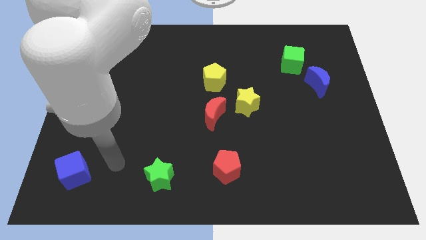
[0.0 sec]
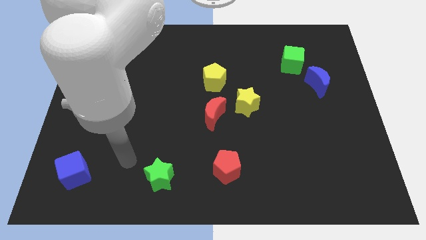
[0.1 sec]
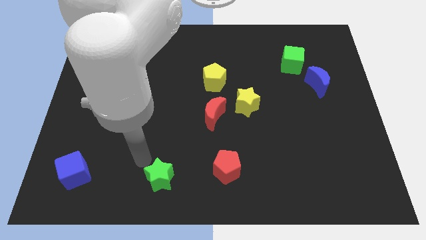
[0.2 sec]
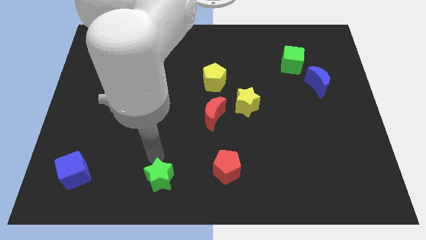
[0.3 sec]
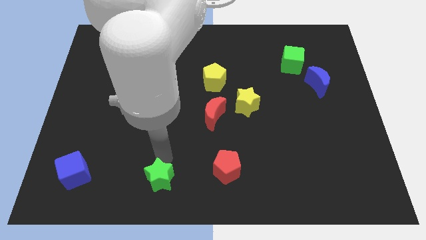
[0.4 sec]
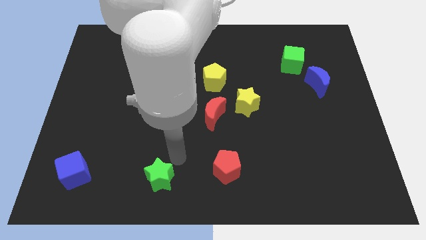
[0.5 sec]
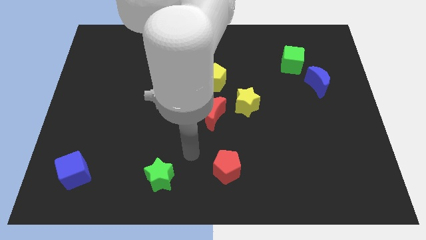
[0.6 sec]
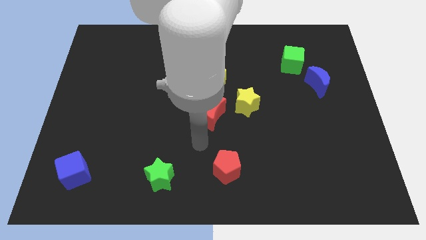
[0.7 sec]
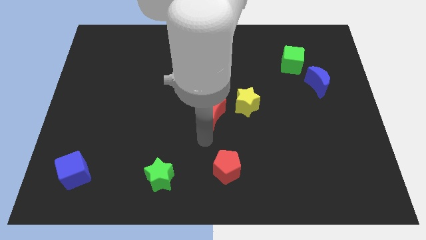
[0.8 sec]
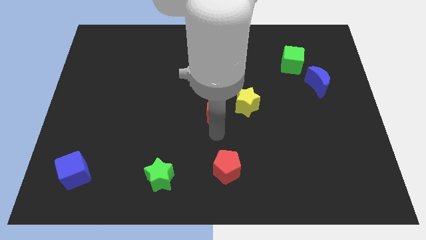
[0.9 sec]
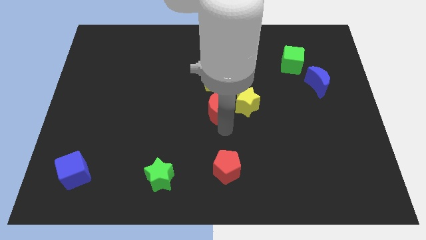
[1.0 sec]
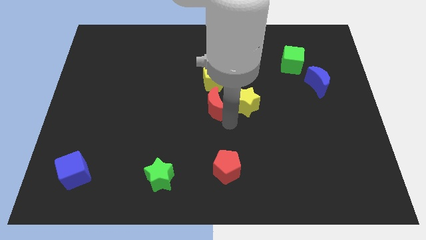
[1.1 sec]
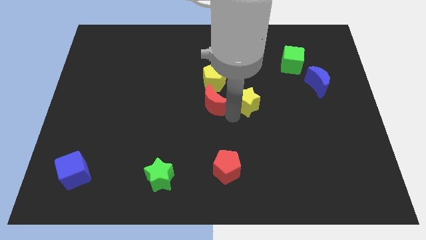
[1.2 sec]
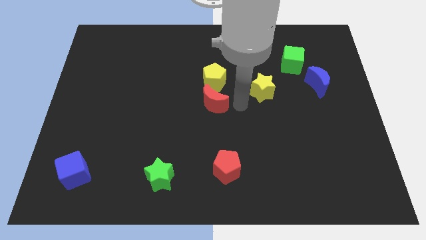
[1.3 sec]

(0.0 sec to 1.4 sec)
move the red moon away from the yellow star

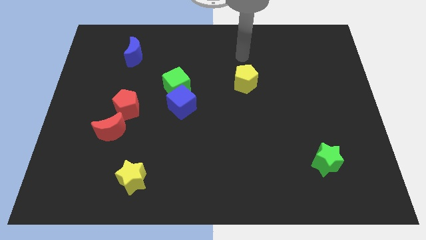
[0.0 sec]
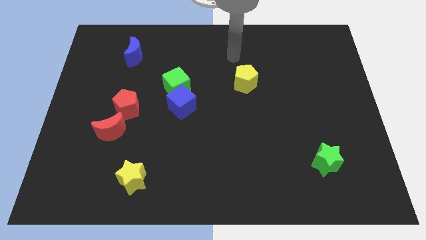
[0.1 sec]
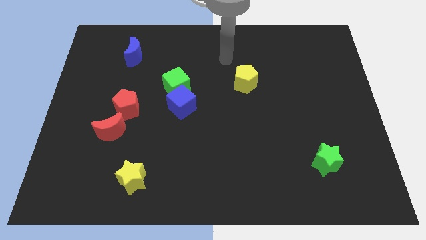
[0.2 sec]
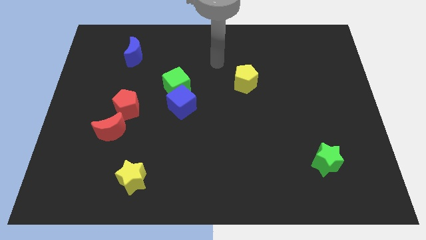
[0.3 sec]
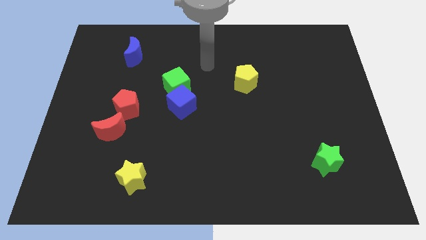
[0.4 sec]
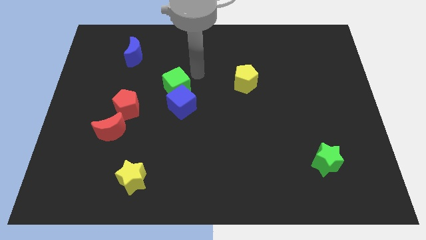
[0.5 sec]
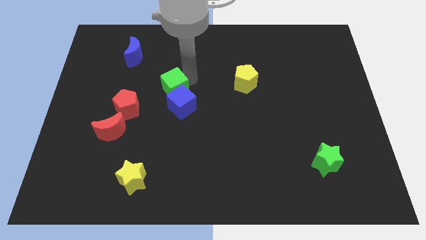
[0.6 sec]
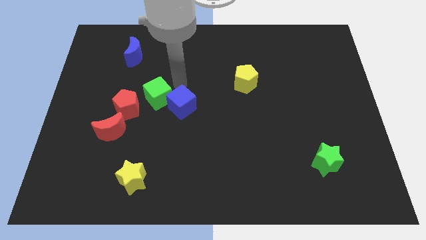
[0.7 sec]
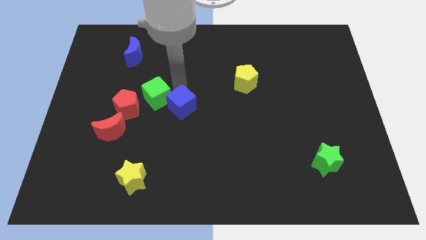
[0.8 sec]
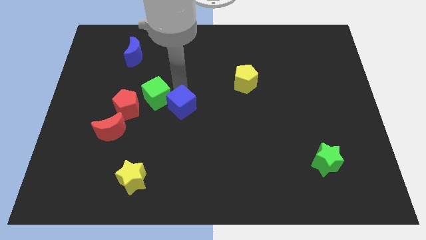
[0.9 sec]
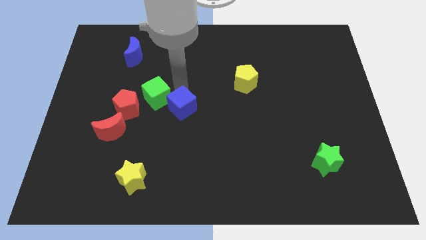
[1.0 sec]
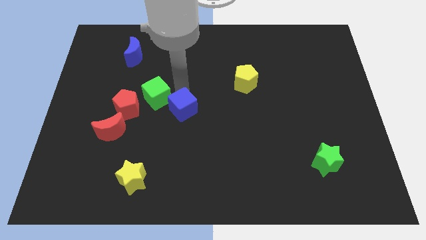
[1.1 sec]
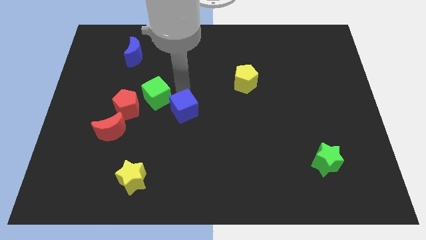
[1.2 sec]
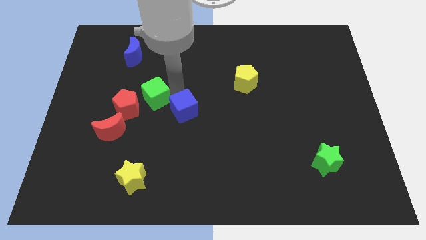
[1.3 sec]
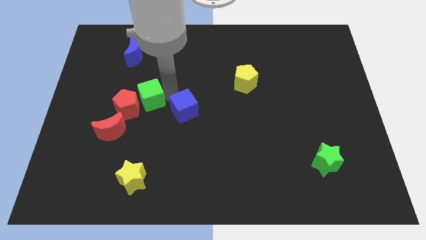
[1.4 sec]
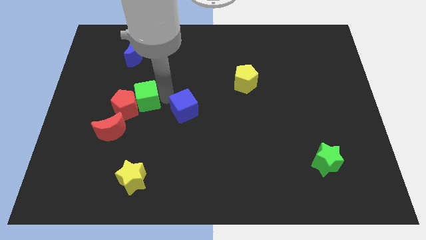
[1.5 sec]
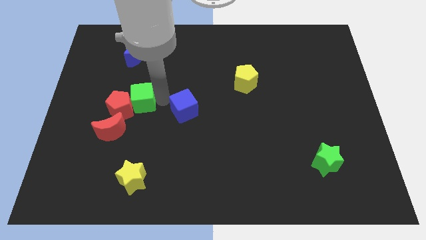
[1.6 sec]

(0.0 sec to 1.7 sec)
pull the blue cube apart from the green cube

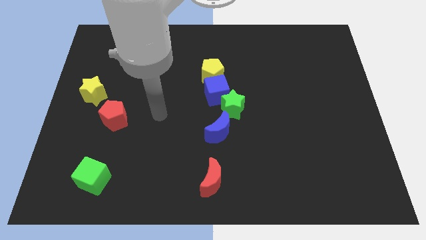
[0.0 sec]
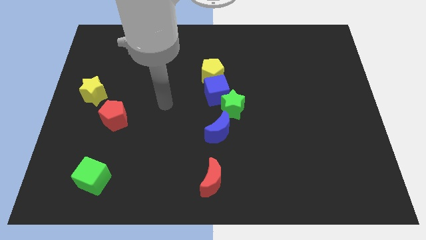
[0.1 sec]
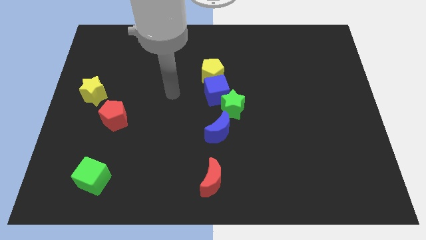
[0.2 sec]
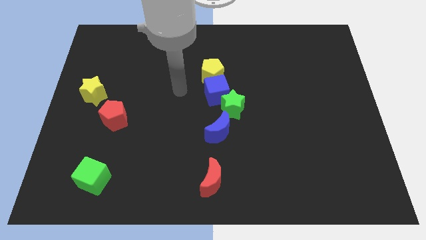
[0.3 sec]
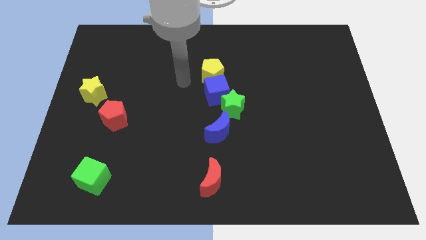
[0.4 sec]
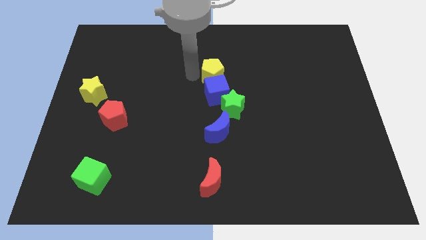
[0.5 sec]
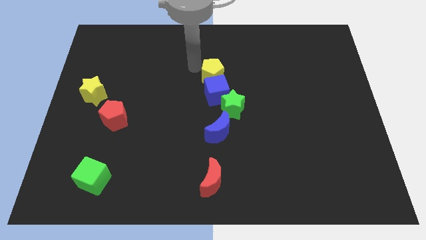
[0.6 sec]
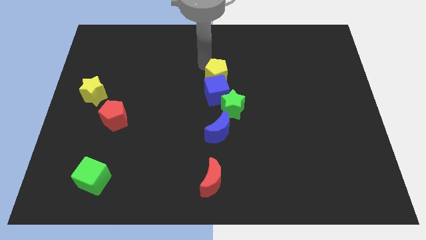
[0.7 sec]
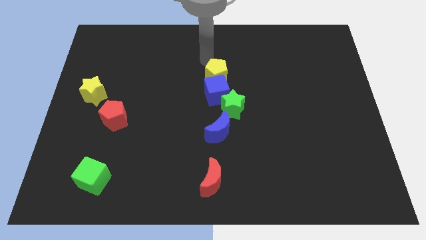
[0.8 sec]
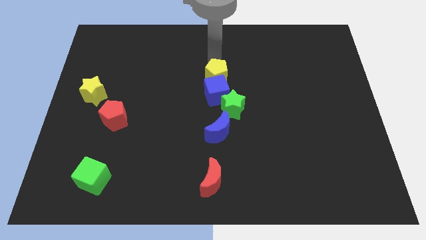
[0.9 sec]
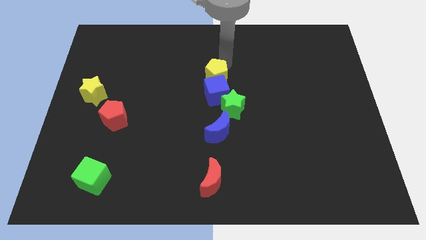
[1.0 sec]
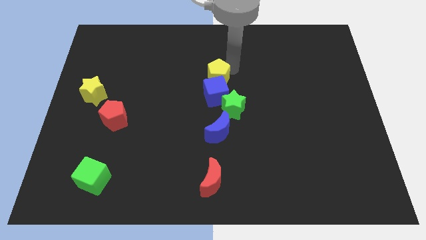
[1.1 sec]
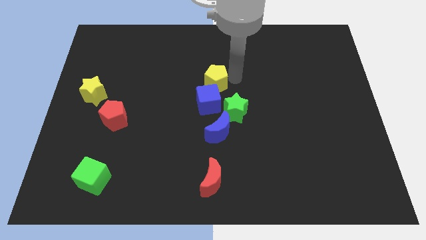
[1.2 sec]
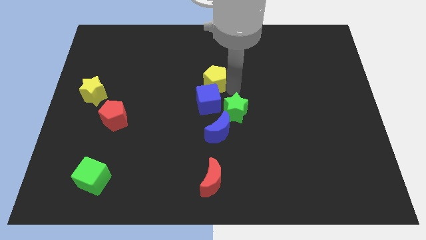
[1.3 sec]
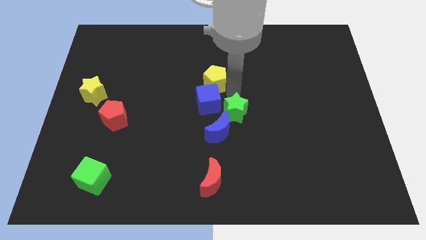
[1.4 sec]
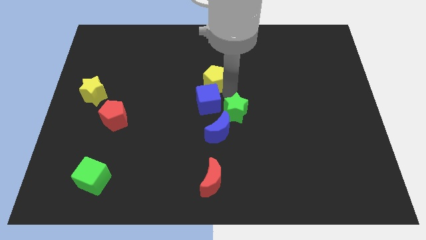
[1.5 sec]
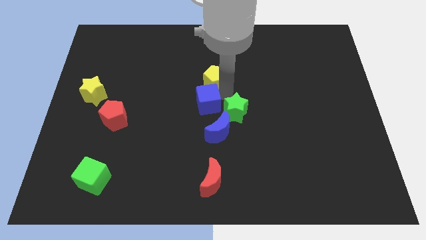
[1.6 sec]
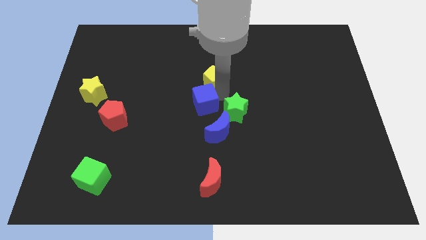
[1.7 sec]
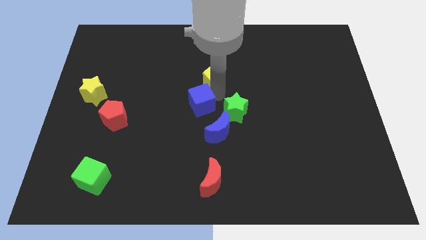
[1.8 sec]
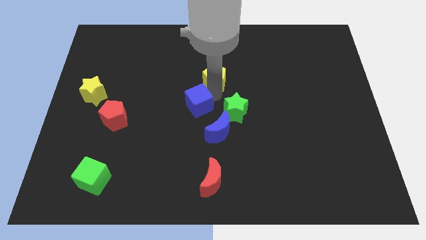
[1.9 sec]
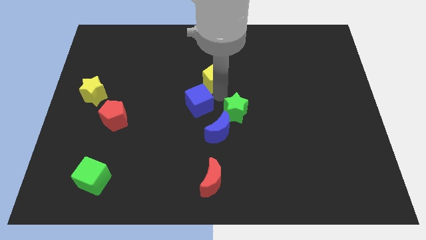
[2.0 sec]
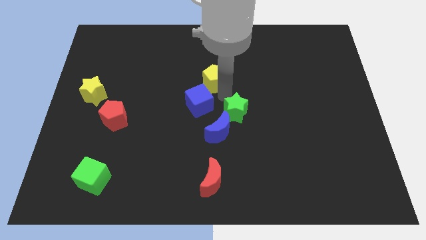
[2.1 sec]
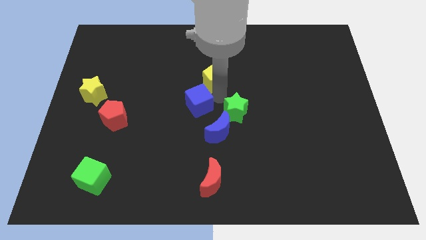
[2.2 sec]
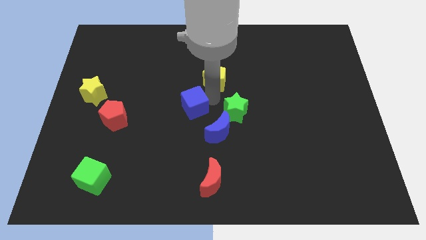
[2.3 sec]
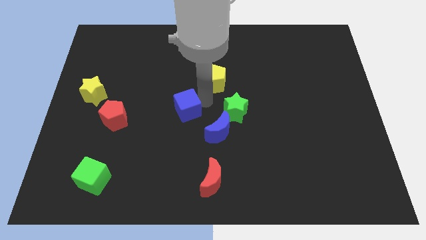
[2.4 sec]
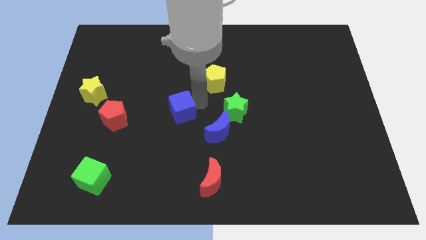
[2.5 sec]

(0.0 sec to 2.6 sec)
pull the blue cube apart from the green star and yellow pentagon

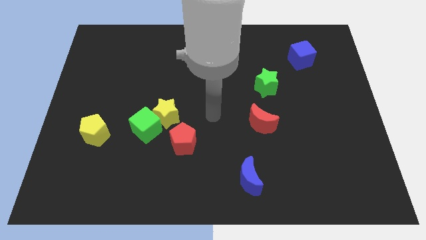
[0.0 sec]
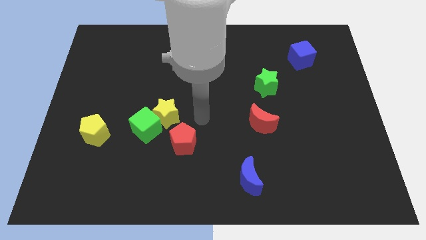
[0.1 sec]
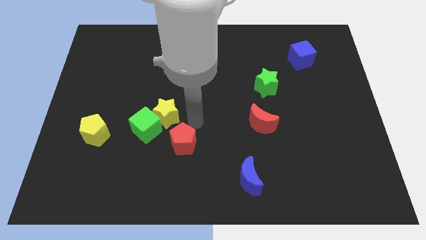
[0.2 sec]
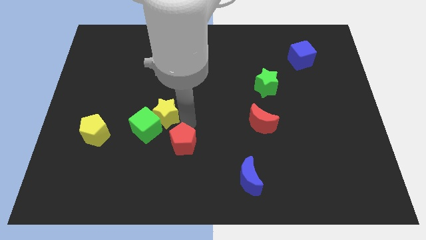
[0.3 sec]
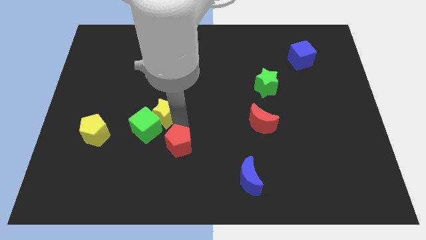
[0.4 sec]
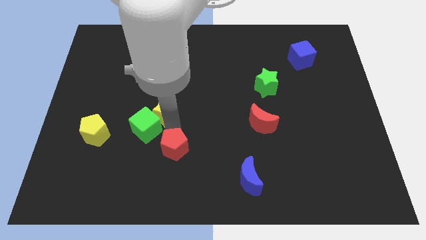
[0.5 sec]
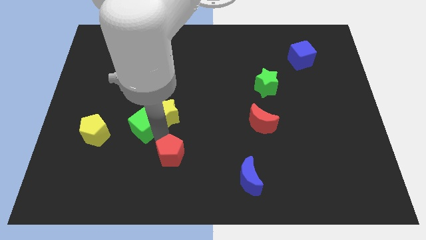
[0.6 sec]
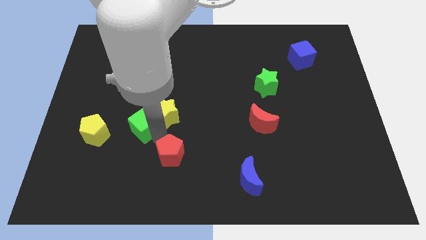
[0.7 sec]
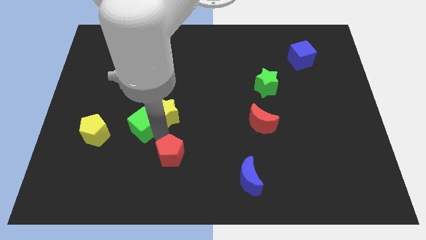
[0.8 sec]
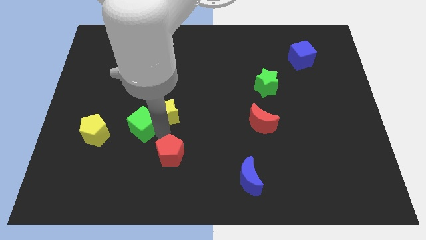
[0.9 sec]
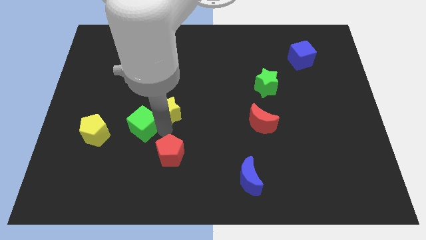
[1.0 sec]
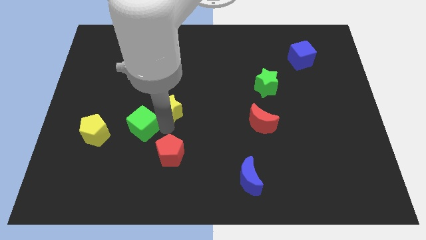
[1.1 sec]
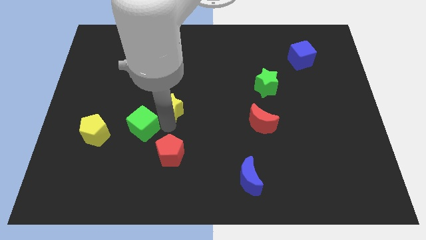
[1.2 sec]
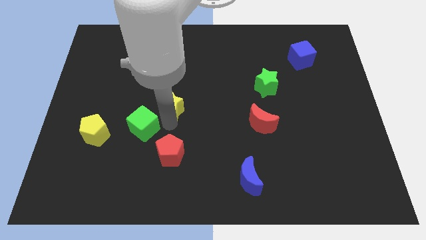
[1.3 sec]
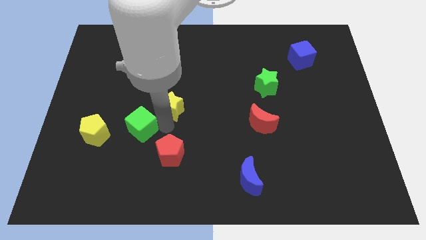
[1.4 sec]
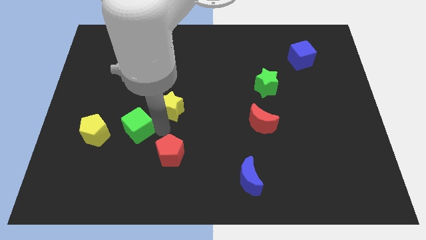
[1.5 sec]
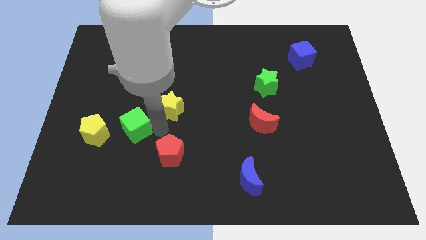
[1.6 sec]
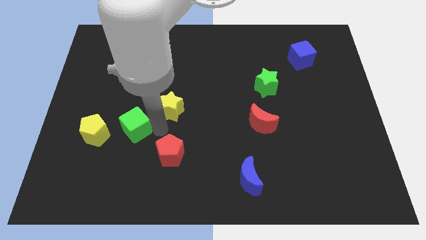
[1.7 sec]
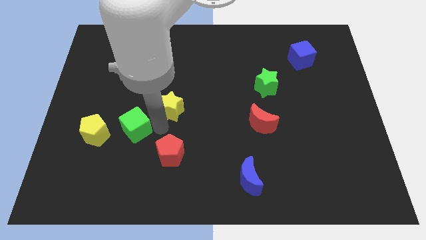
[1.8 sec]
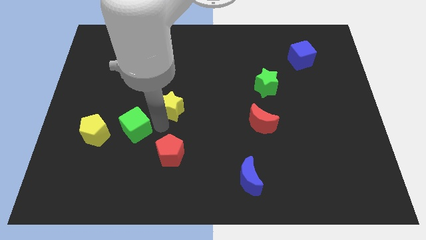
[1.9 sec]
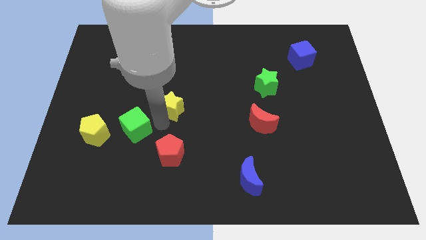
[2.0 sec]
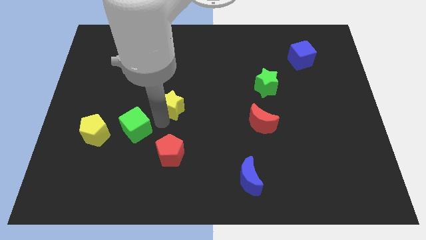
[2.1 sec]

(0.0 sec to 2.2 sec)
separate the yellow star from the green cube and red pentagon

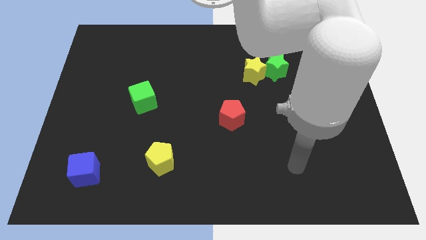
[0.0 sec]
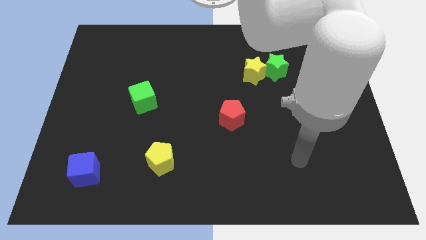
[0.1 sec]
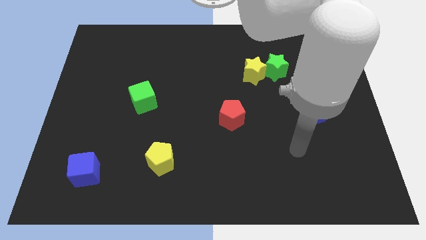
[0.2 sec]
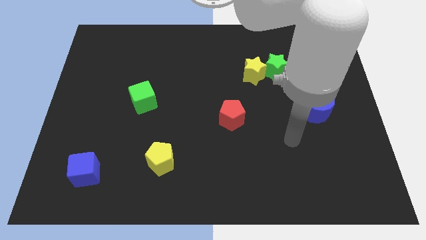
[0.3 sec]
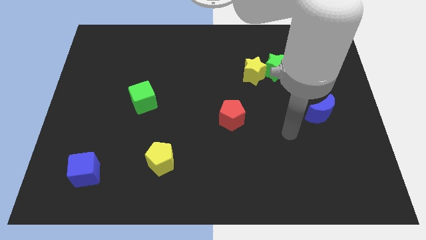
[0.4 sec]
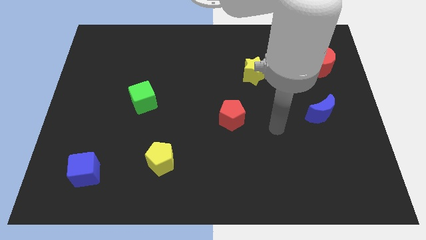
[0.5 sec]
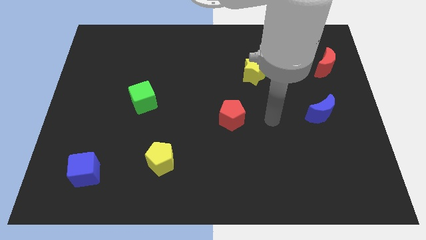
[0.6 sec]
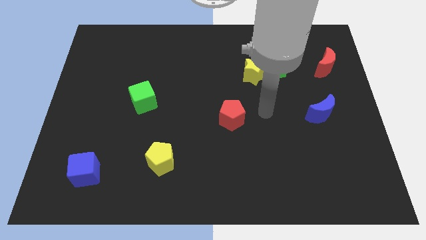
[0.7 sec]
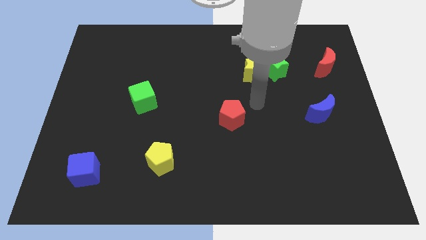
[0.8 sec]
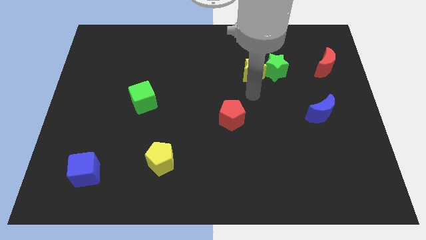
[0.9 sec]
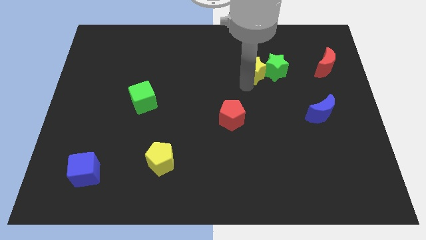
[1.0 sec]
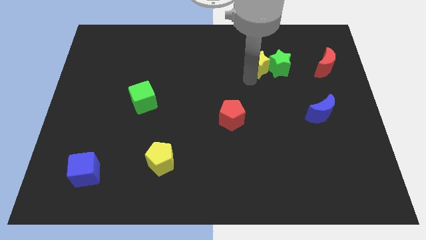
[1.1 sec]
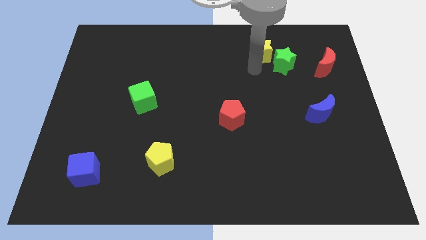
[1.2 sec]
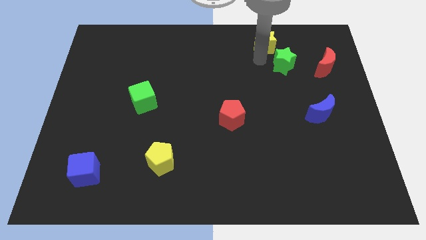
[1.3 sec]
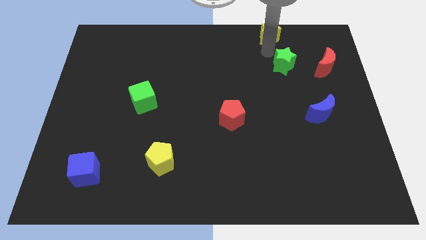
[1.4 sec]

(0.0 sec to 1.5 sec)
separate the green star from the yellow star
